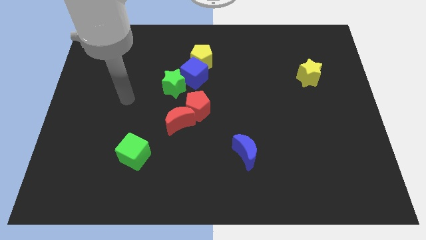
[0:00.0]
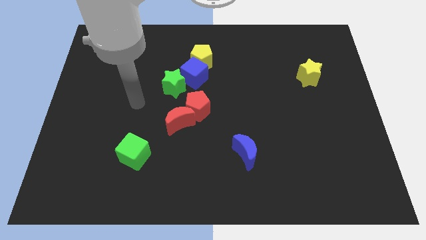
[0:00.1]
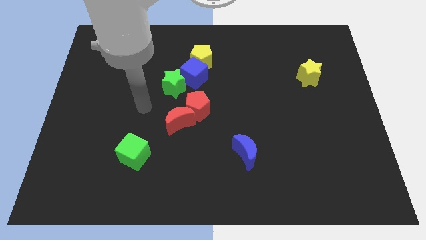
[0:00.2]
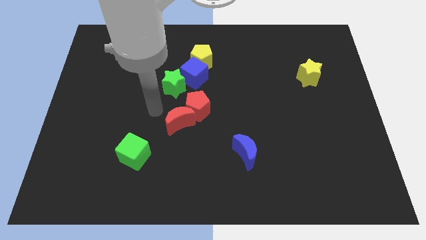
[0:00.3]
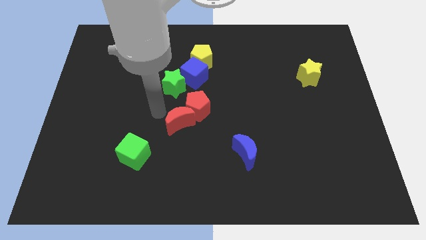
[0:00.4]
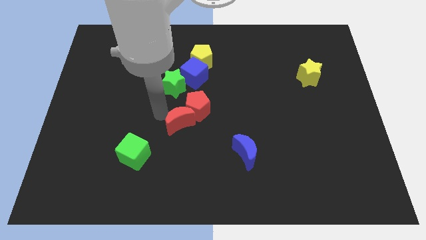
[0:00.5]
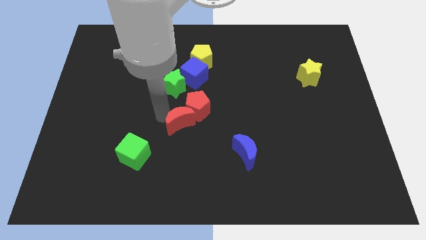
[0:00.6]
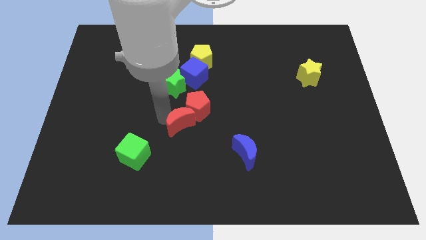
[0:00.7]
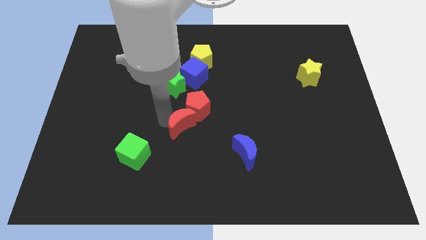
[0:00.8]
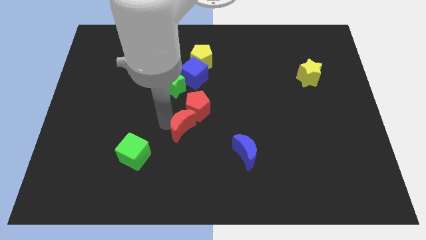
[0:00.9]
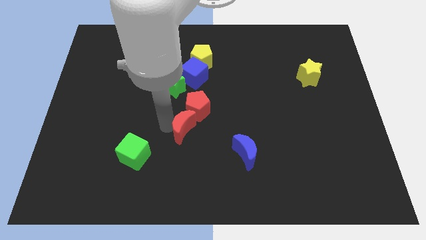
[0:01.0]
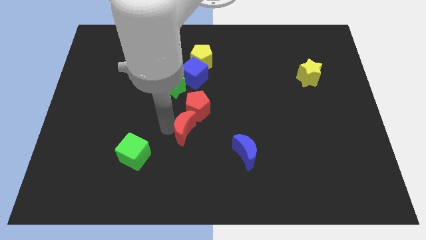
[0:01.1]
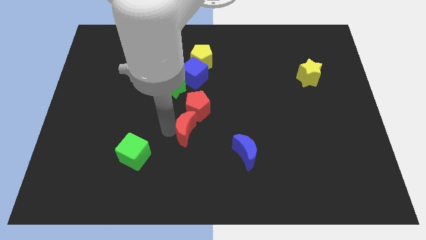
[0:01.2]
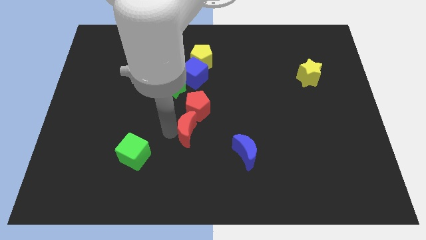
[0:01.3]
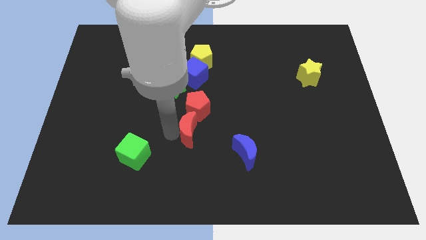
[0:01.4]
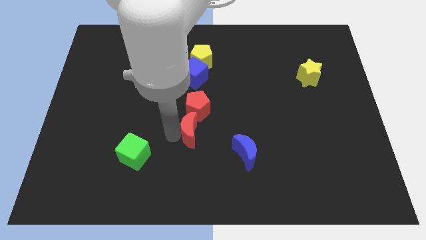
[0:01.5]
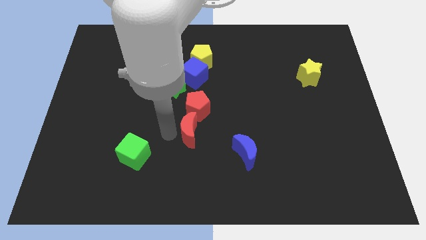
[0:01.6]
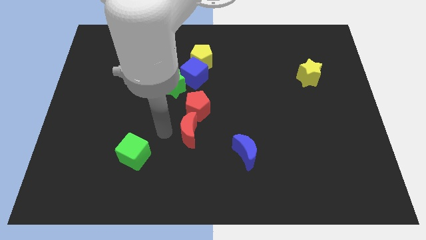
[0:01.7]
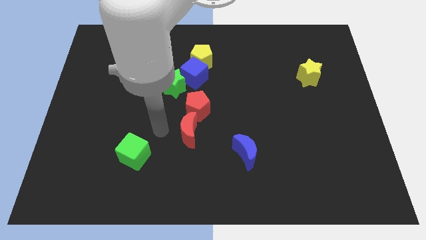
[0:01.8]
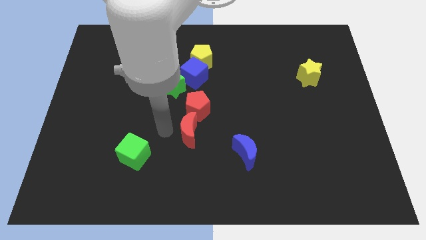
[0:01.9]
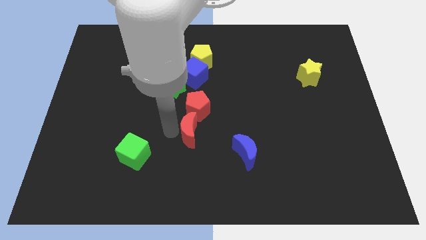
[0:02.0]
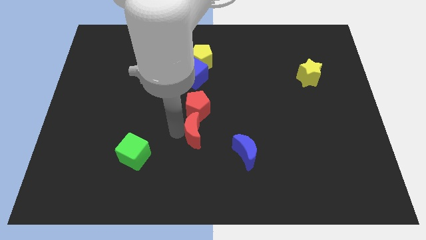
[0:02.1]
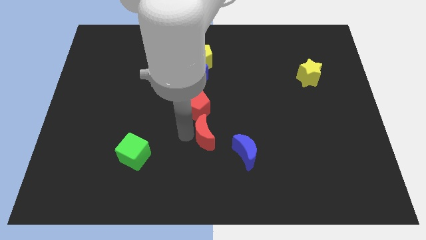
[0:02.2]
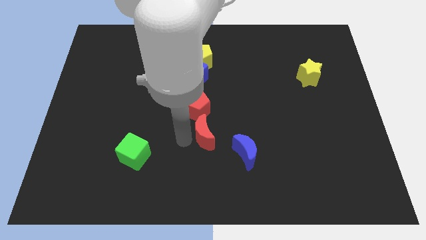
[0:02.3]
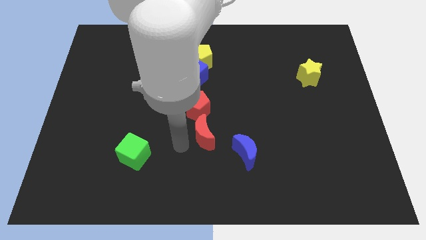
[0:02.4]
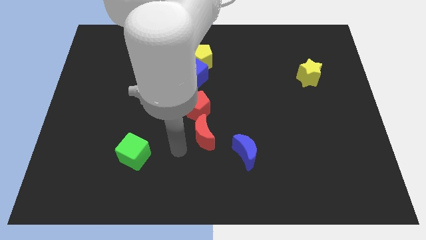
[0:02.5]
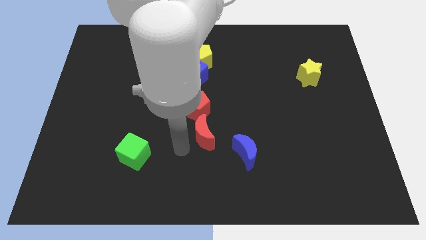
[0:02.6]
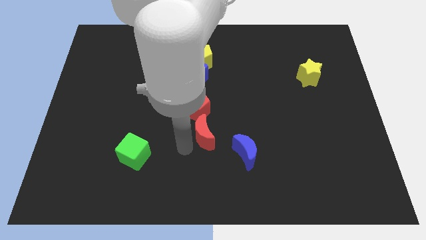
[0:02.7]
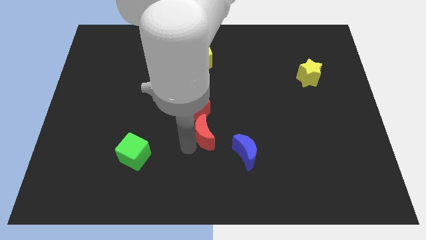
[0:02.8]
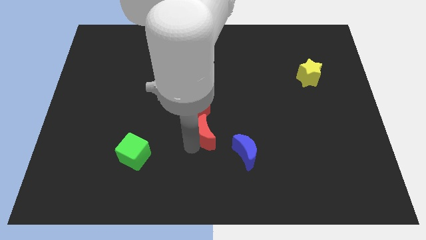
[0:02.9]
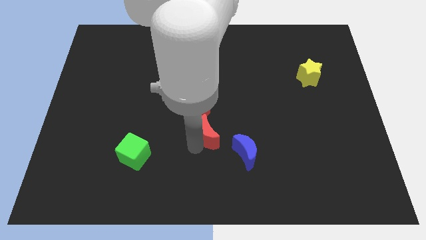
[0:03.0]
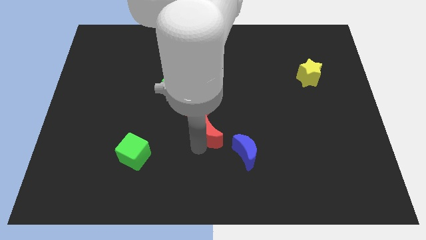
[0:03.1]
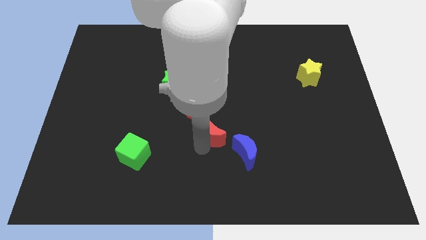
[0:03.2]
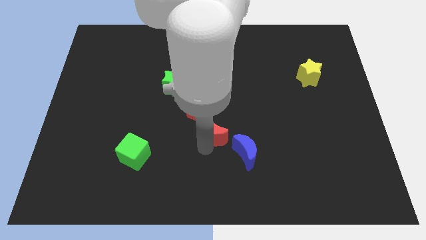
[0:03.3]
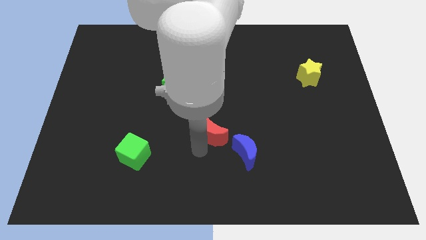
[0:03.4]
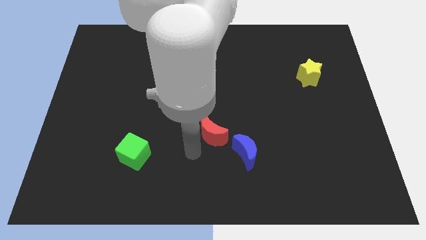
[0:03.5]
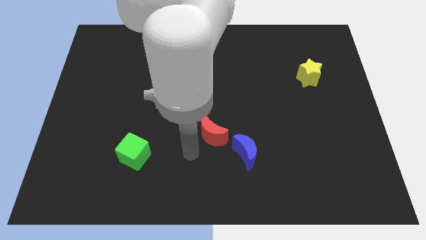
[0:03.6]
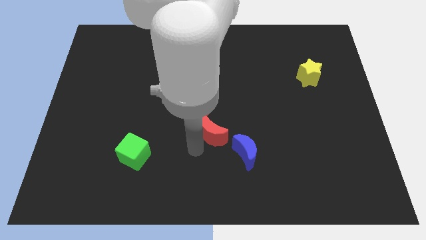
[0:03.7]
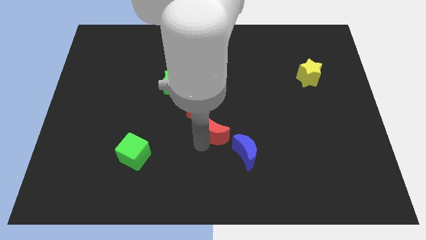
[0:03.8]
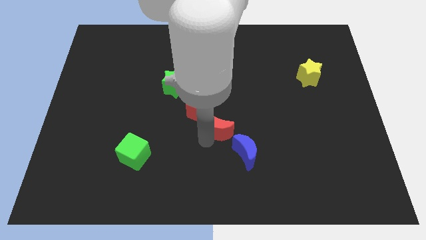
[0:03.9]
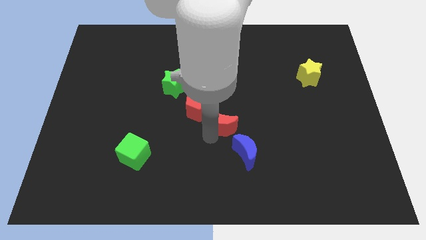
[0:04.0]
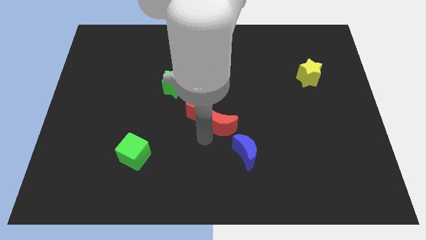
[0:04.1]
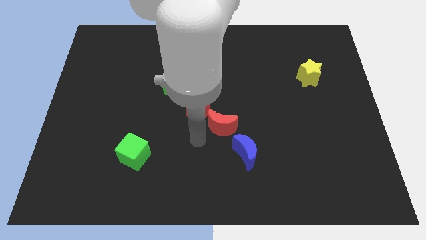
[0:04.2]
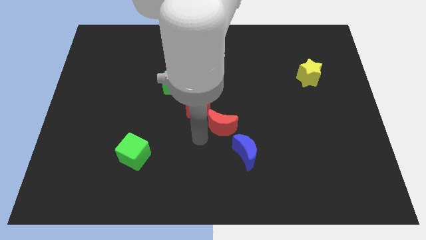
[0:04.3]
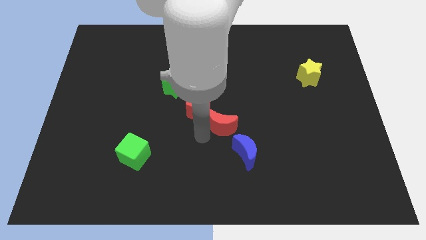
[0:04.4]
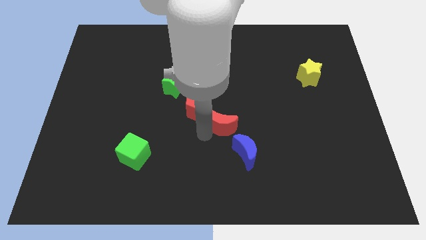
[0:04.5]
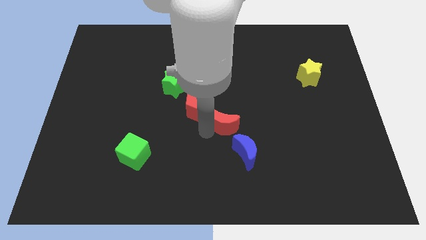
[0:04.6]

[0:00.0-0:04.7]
put the red moon to the top side of the blue moon

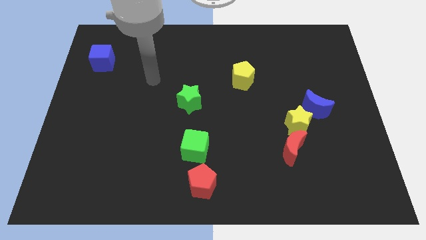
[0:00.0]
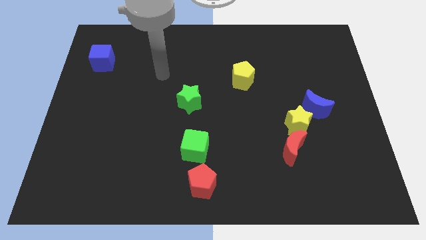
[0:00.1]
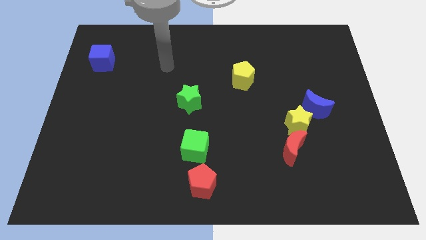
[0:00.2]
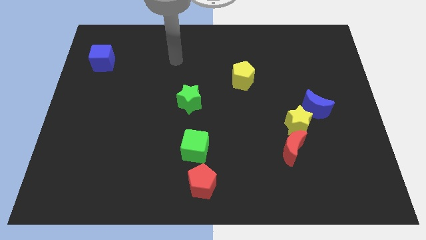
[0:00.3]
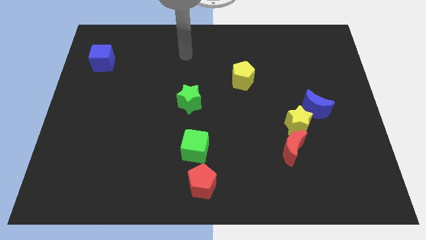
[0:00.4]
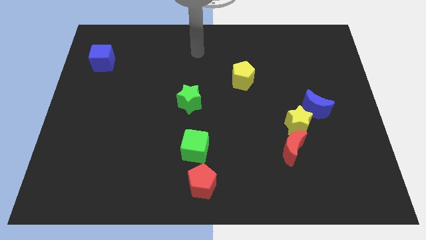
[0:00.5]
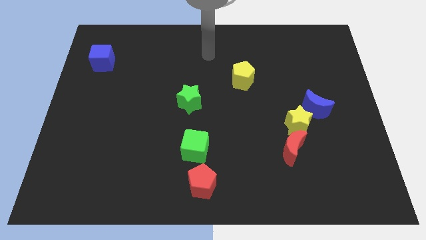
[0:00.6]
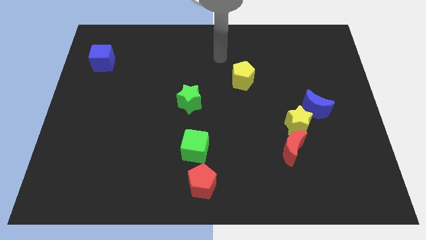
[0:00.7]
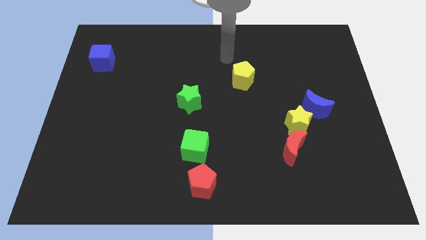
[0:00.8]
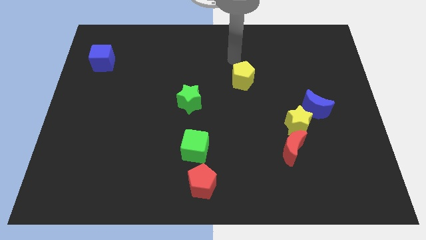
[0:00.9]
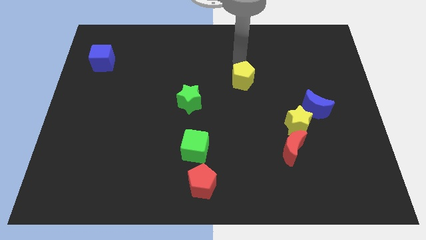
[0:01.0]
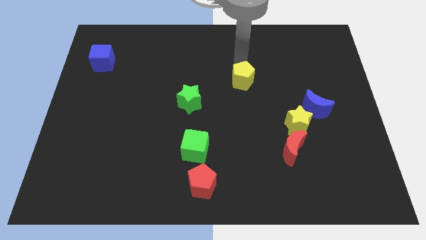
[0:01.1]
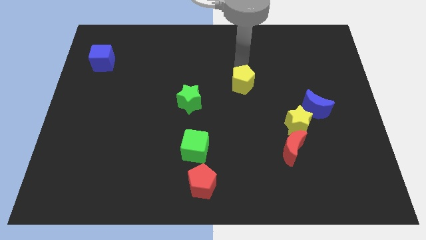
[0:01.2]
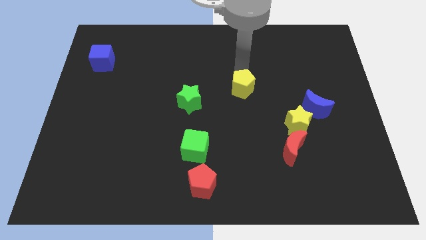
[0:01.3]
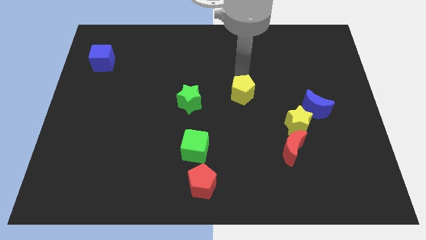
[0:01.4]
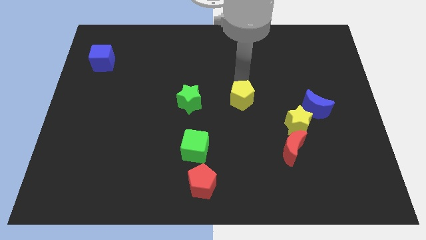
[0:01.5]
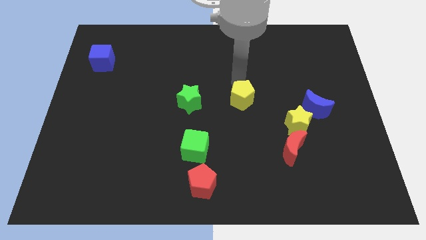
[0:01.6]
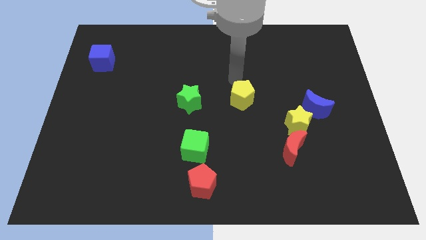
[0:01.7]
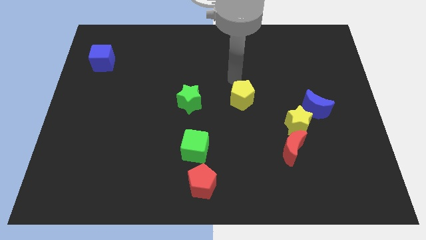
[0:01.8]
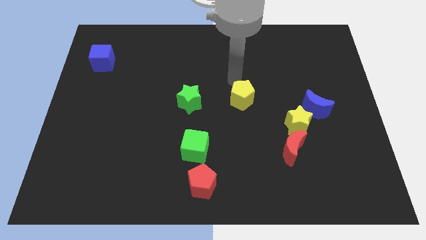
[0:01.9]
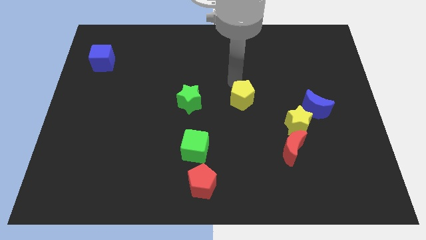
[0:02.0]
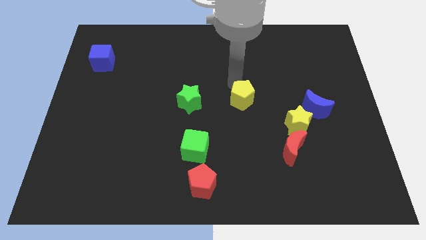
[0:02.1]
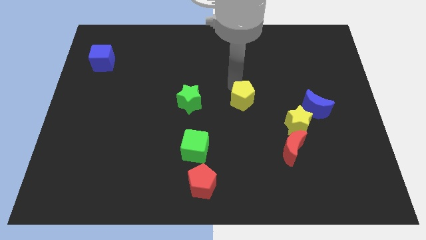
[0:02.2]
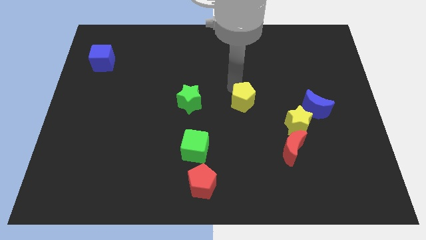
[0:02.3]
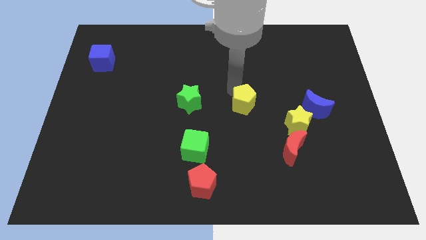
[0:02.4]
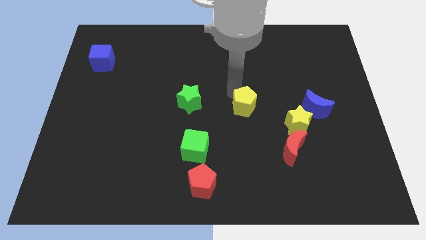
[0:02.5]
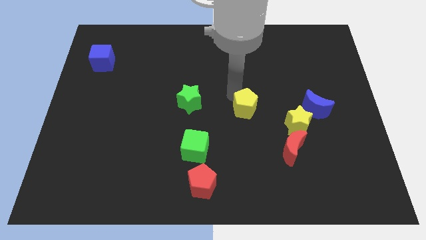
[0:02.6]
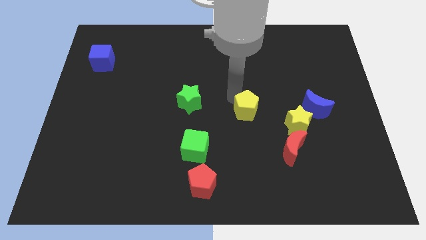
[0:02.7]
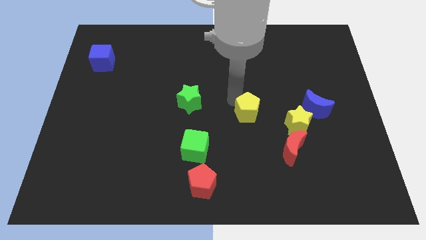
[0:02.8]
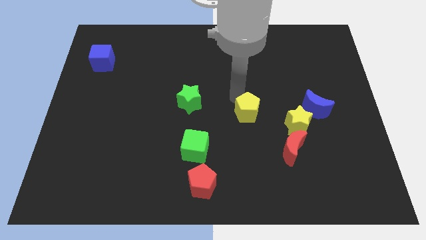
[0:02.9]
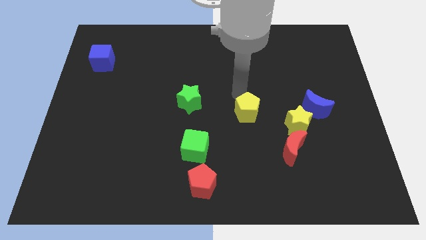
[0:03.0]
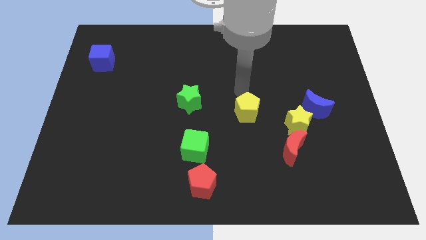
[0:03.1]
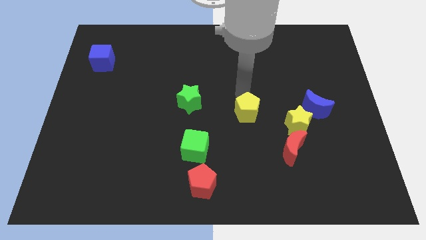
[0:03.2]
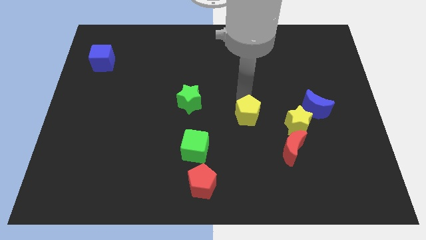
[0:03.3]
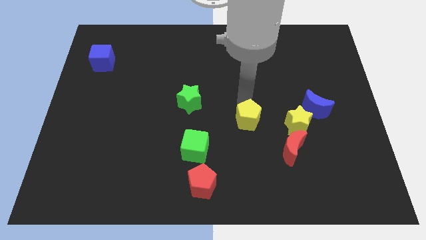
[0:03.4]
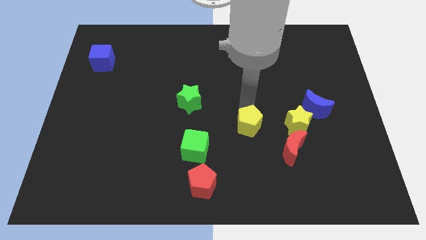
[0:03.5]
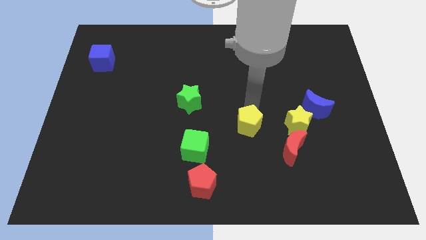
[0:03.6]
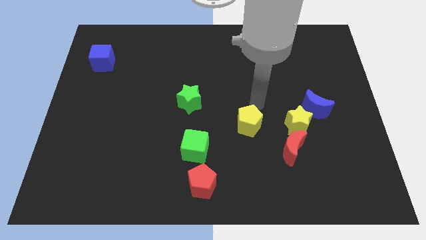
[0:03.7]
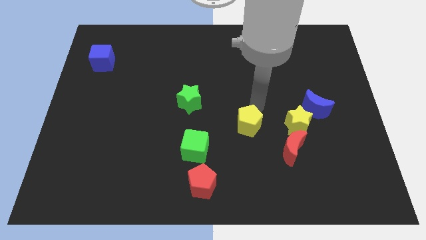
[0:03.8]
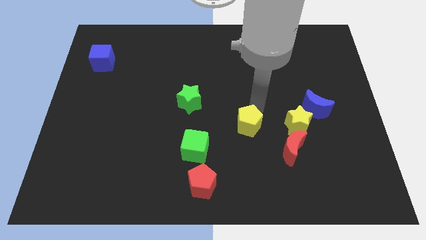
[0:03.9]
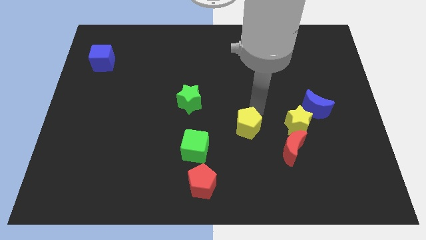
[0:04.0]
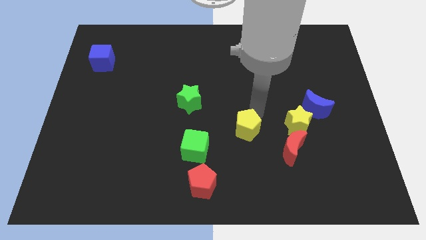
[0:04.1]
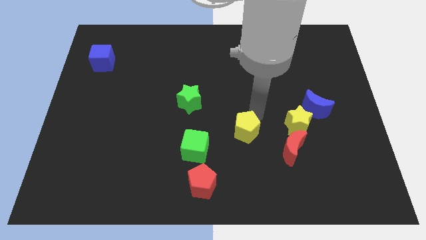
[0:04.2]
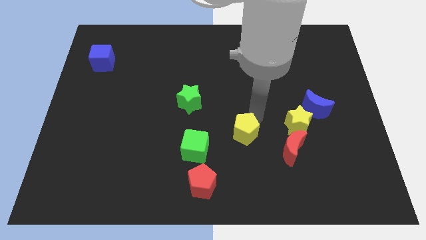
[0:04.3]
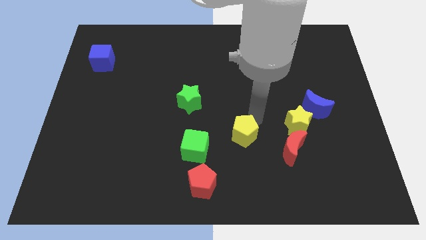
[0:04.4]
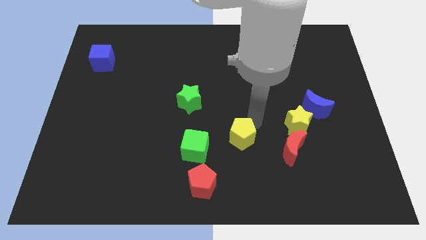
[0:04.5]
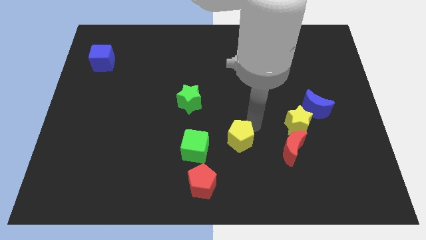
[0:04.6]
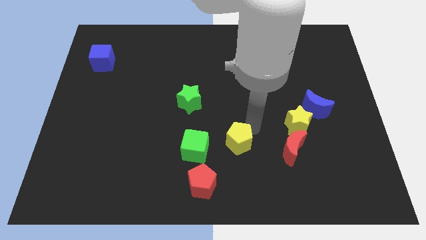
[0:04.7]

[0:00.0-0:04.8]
move the yellow pentagon to the top right side of the red pentagon
